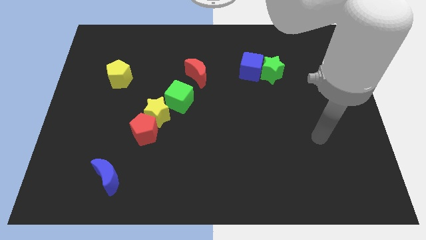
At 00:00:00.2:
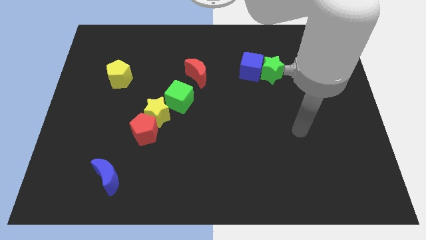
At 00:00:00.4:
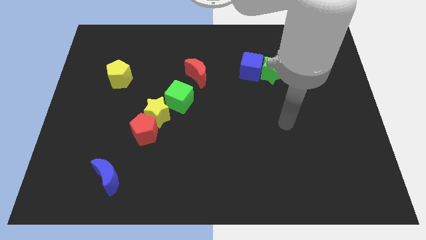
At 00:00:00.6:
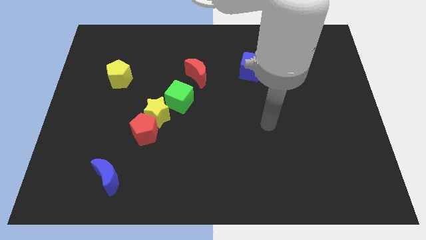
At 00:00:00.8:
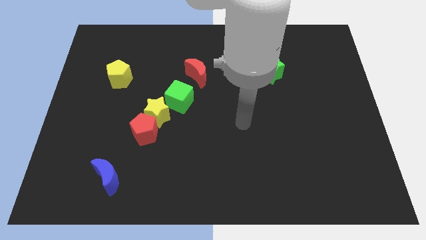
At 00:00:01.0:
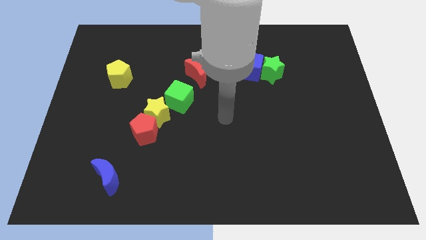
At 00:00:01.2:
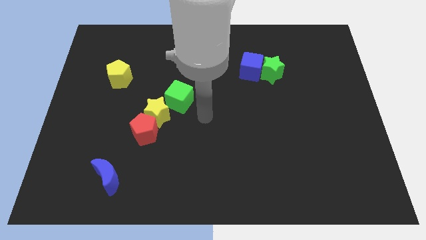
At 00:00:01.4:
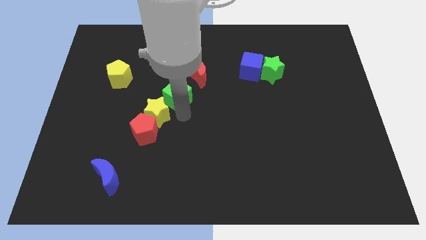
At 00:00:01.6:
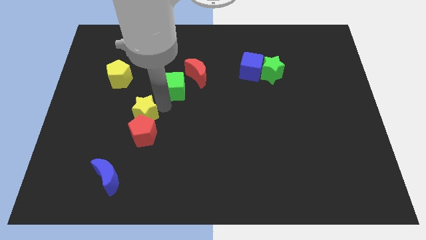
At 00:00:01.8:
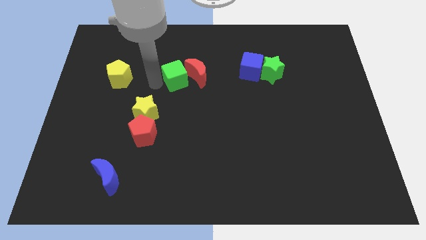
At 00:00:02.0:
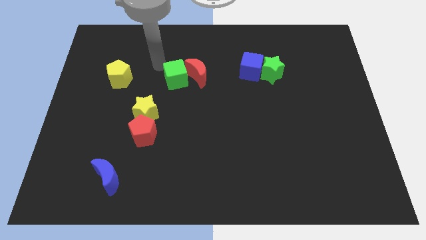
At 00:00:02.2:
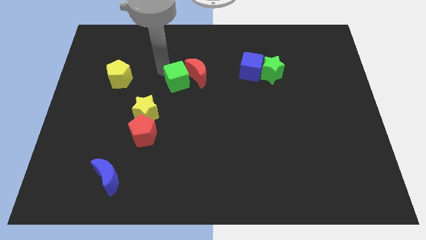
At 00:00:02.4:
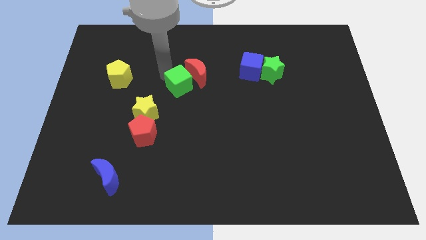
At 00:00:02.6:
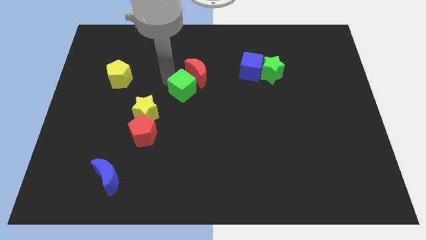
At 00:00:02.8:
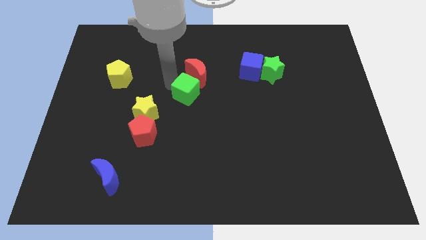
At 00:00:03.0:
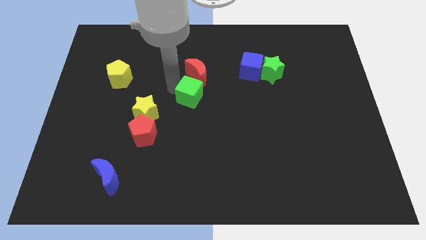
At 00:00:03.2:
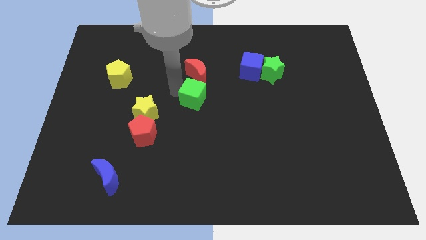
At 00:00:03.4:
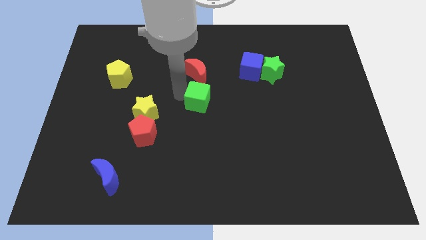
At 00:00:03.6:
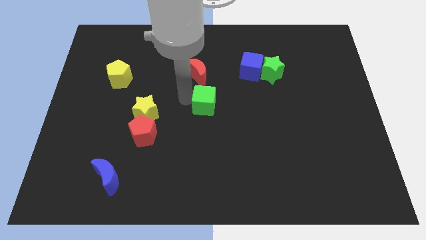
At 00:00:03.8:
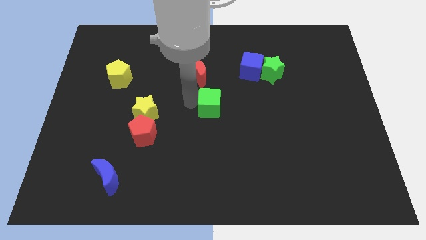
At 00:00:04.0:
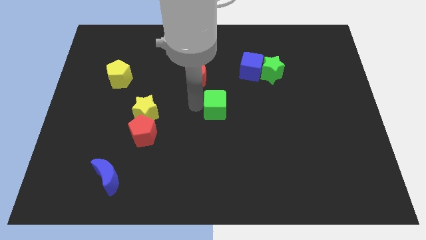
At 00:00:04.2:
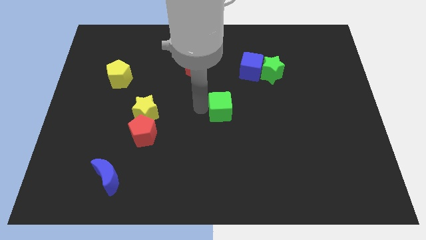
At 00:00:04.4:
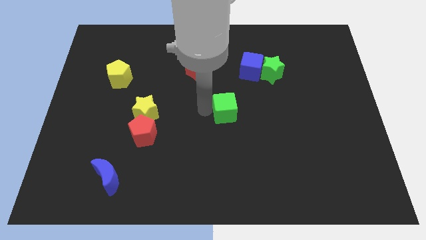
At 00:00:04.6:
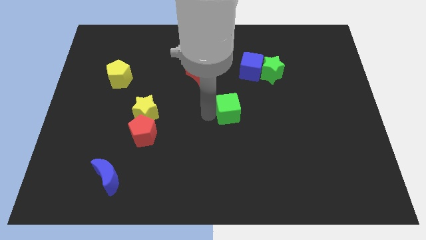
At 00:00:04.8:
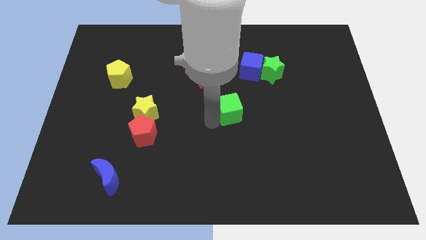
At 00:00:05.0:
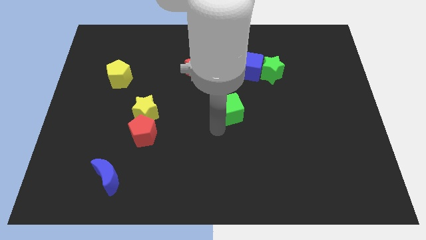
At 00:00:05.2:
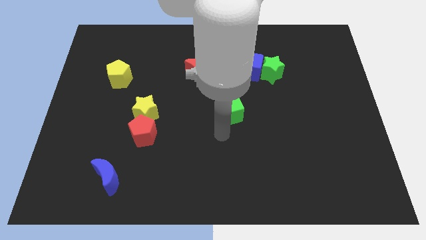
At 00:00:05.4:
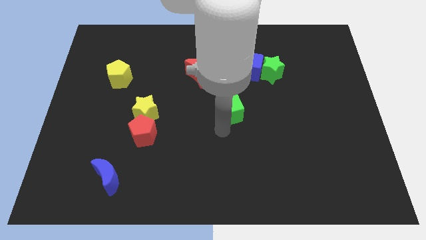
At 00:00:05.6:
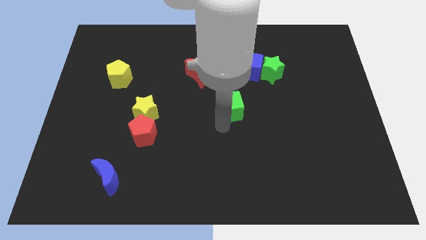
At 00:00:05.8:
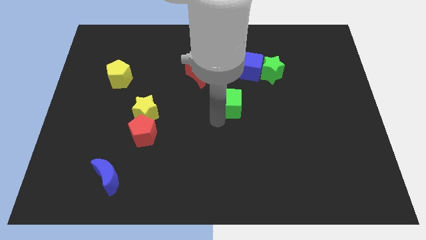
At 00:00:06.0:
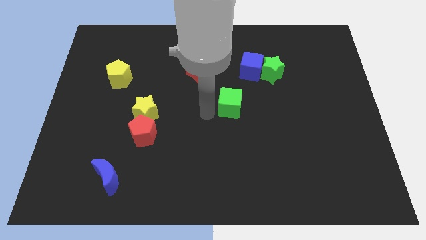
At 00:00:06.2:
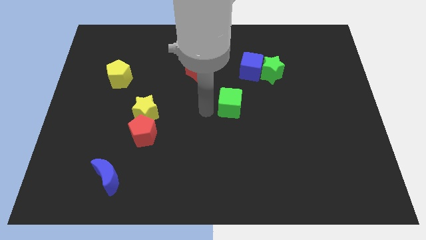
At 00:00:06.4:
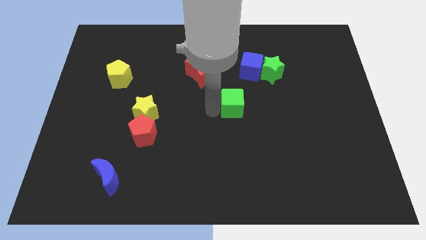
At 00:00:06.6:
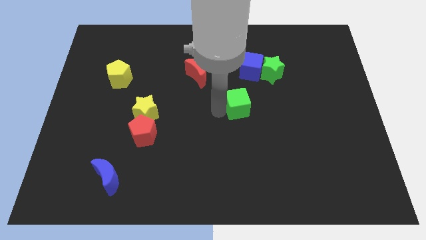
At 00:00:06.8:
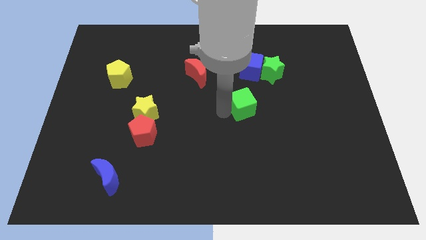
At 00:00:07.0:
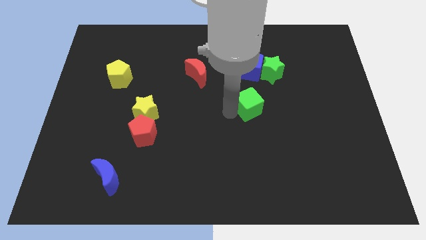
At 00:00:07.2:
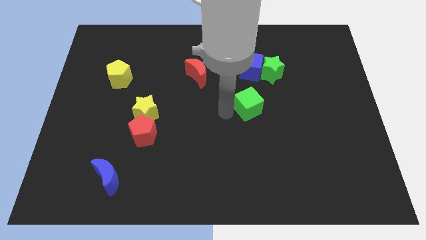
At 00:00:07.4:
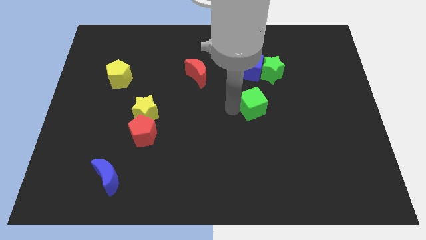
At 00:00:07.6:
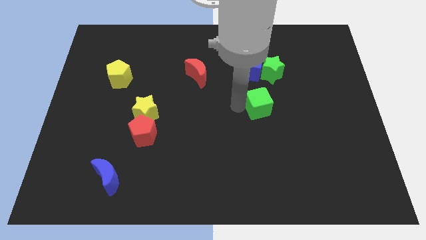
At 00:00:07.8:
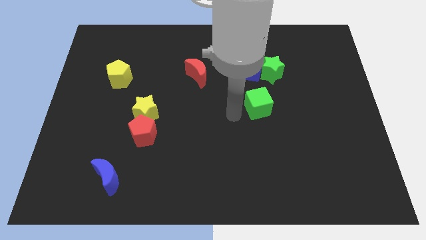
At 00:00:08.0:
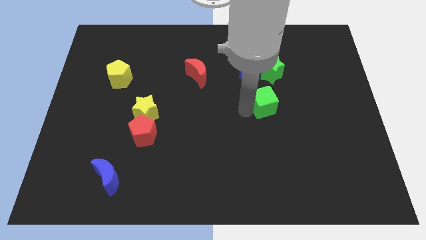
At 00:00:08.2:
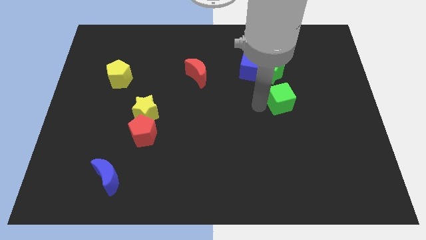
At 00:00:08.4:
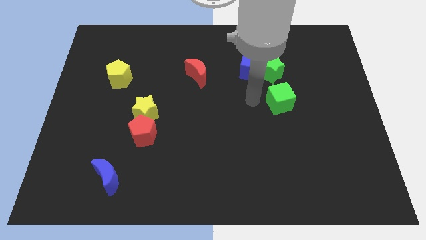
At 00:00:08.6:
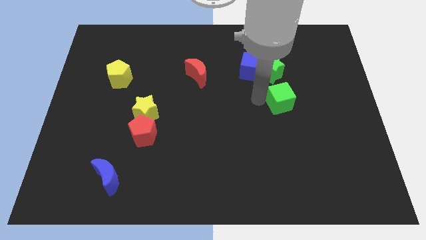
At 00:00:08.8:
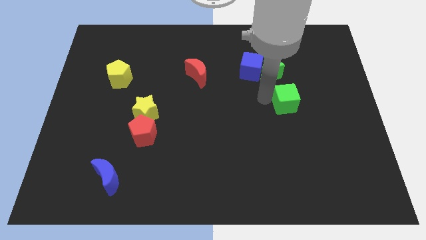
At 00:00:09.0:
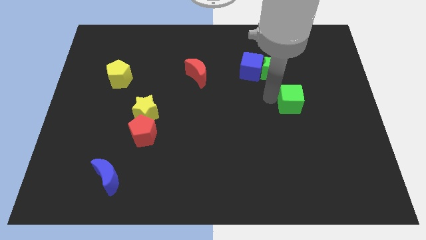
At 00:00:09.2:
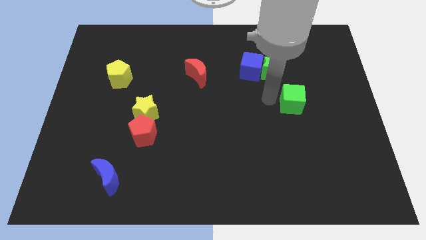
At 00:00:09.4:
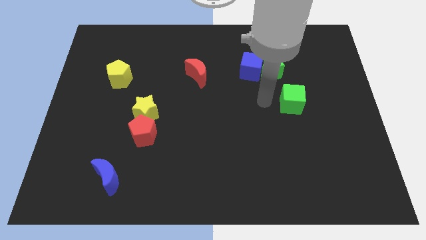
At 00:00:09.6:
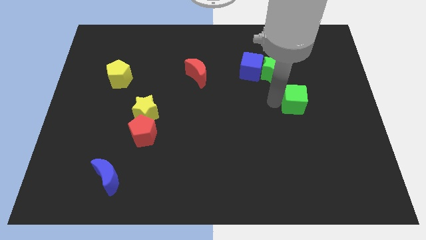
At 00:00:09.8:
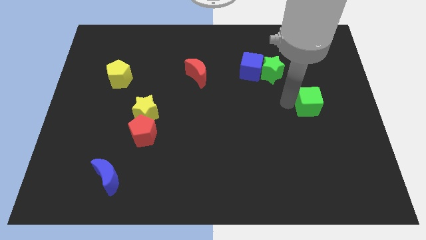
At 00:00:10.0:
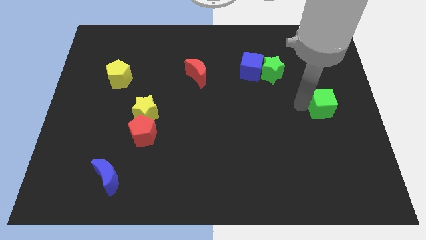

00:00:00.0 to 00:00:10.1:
slide the green cube to the center right

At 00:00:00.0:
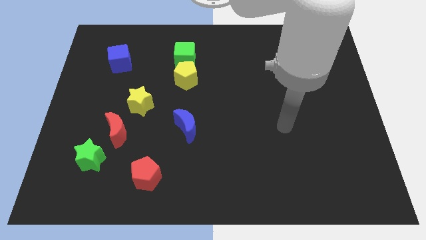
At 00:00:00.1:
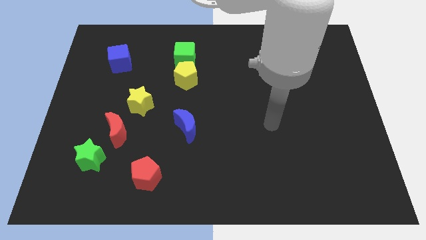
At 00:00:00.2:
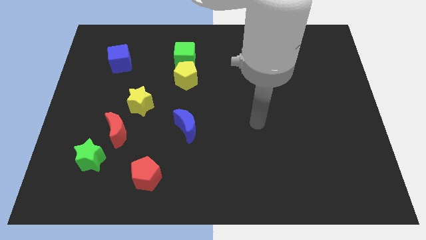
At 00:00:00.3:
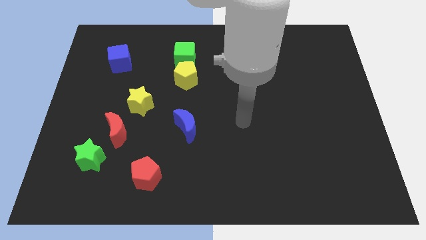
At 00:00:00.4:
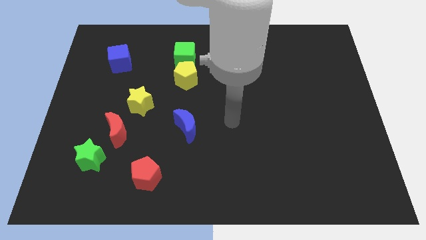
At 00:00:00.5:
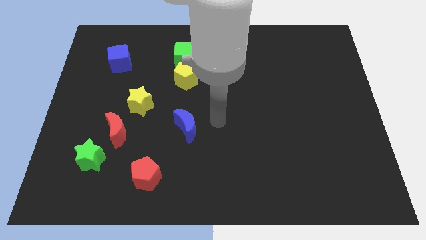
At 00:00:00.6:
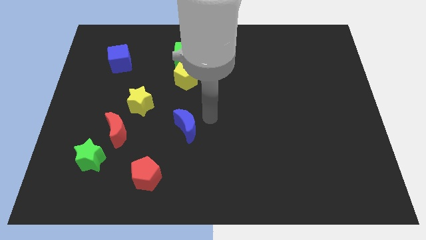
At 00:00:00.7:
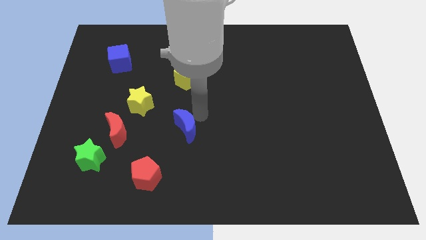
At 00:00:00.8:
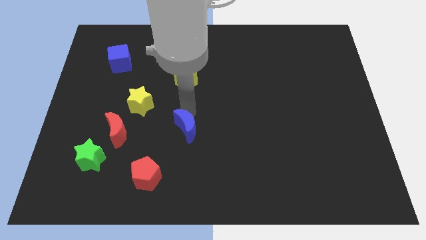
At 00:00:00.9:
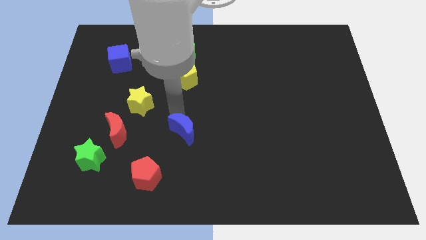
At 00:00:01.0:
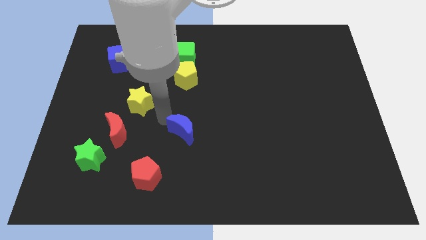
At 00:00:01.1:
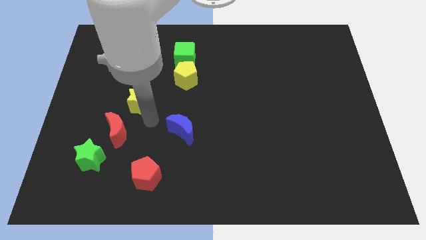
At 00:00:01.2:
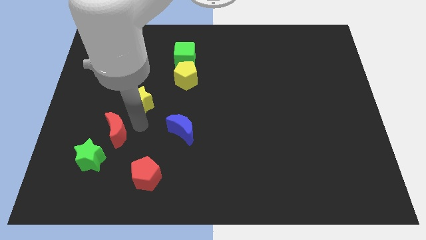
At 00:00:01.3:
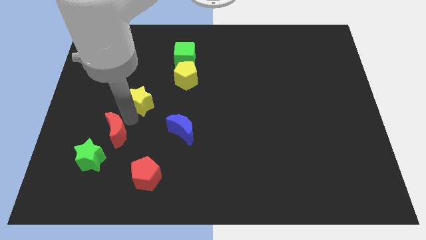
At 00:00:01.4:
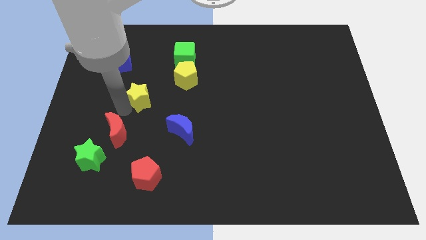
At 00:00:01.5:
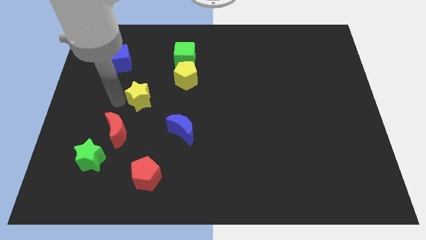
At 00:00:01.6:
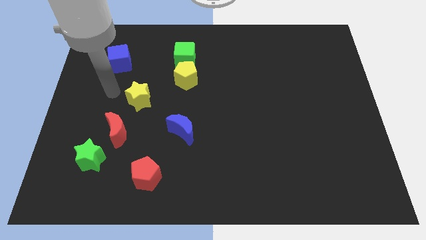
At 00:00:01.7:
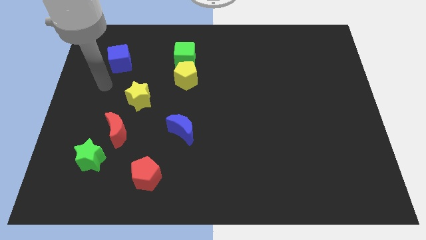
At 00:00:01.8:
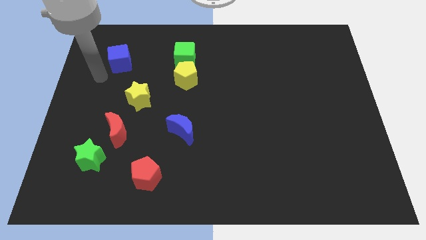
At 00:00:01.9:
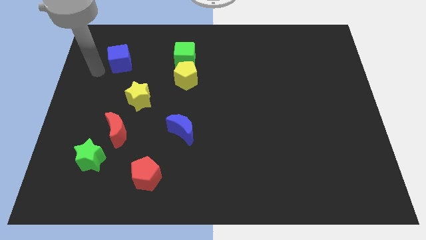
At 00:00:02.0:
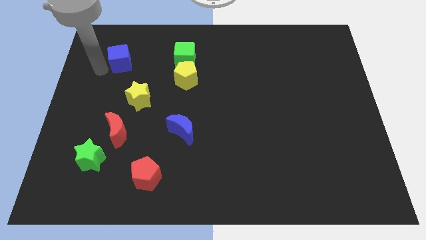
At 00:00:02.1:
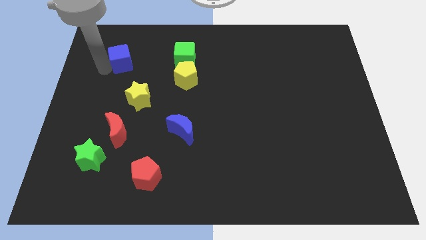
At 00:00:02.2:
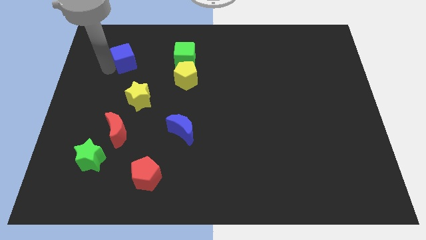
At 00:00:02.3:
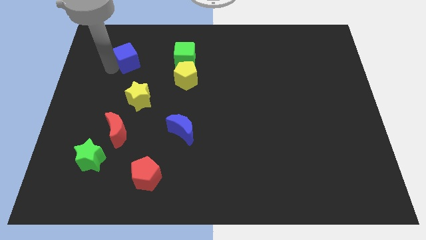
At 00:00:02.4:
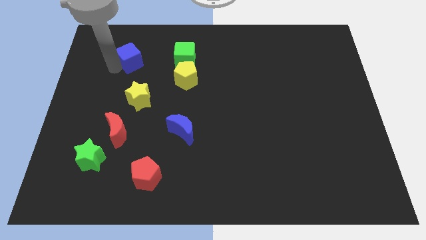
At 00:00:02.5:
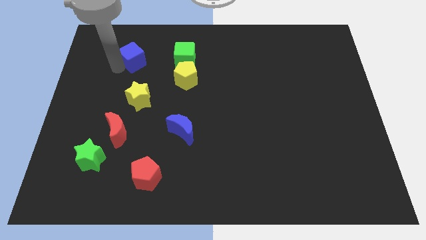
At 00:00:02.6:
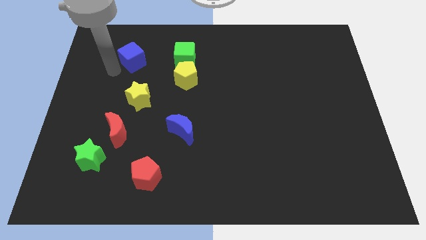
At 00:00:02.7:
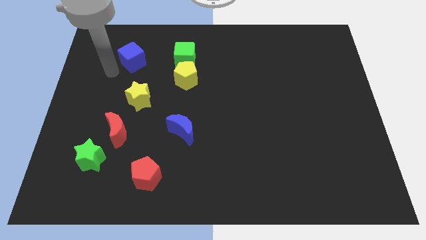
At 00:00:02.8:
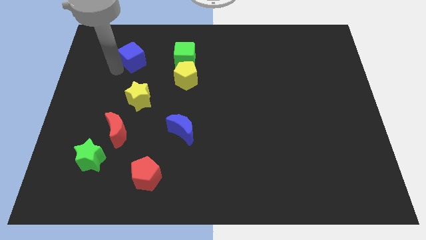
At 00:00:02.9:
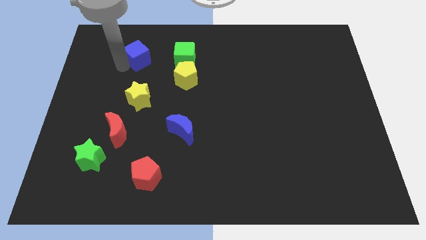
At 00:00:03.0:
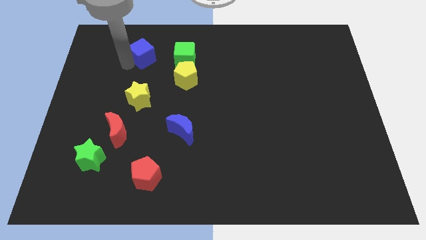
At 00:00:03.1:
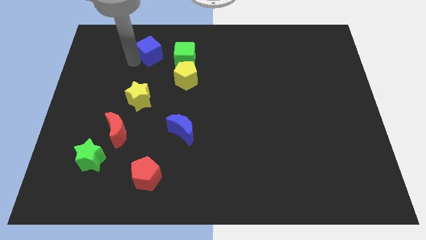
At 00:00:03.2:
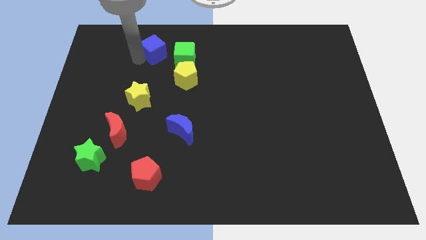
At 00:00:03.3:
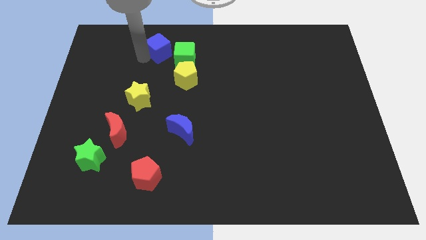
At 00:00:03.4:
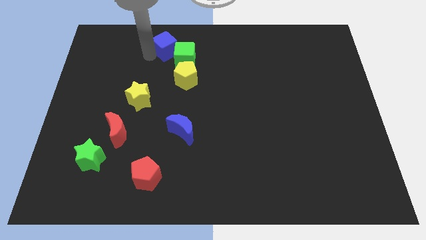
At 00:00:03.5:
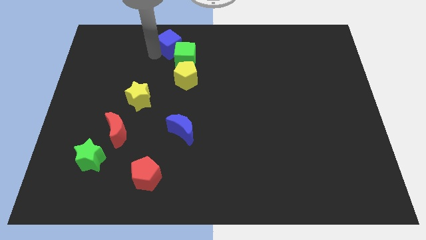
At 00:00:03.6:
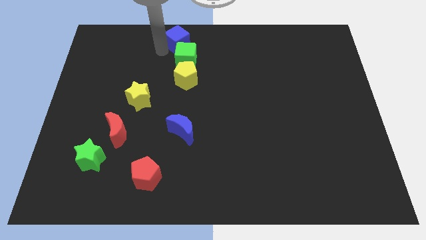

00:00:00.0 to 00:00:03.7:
put the blue cube to the top
